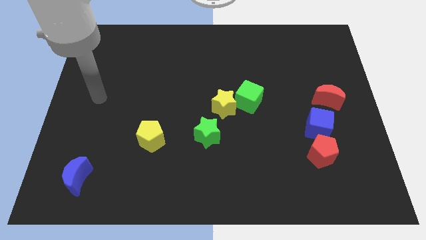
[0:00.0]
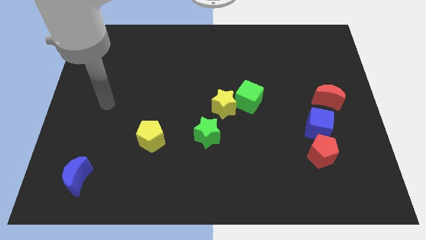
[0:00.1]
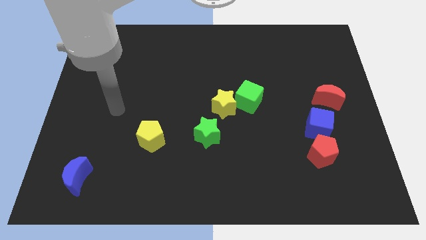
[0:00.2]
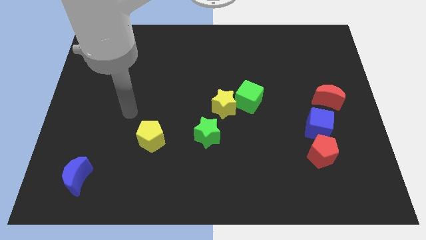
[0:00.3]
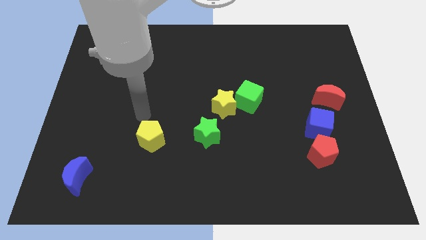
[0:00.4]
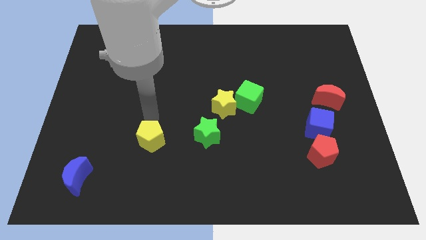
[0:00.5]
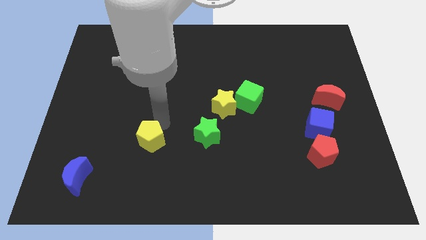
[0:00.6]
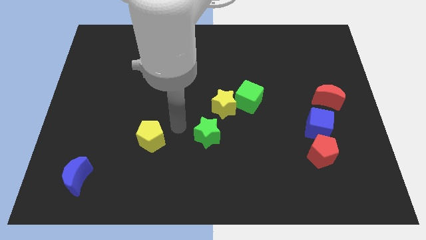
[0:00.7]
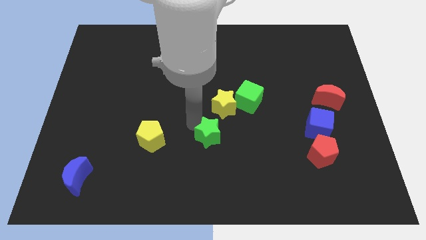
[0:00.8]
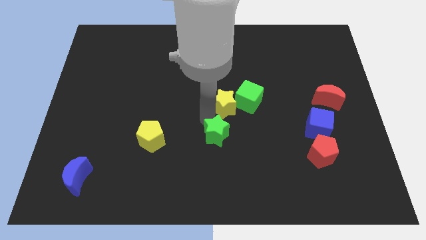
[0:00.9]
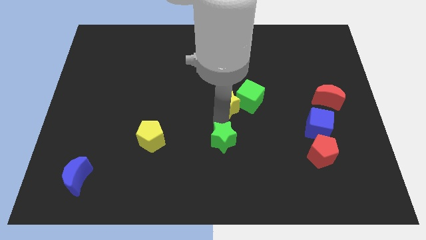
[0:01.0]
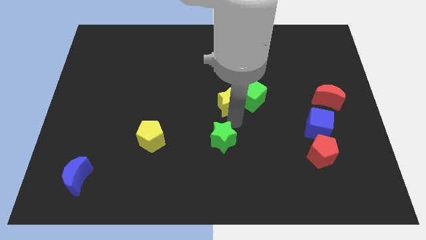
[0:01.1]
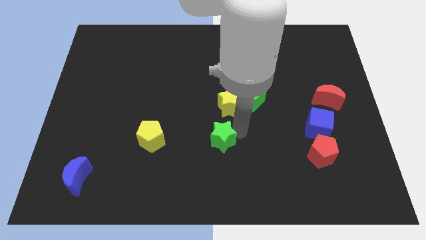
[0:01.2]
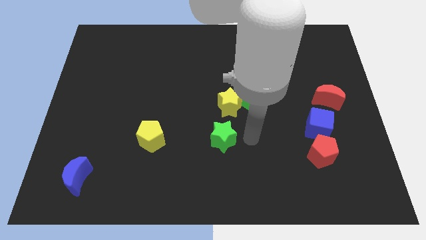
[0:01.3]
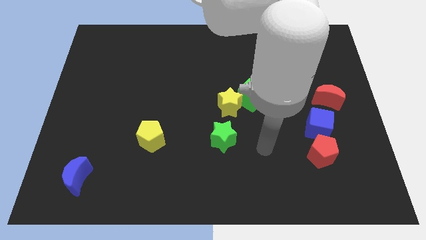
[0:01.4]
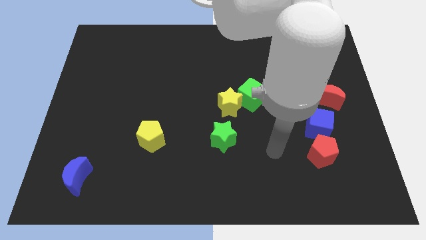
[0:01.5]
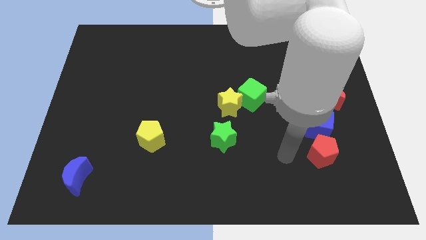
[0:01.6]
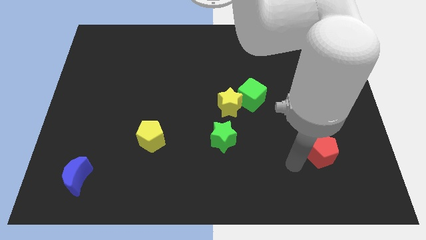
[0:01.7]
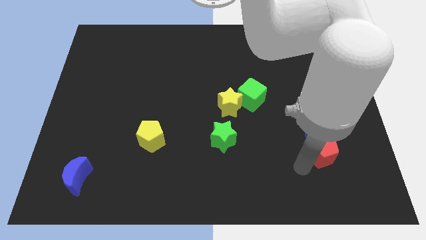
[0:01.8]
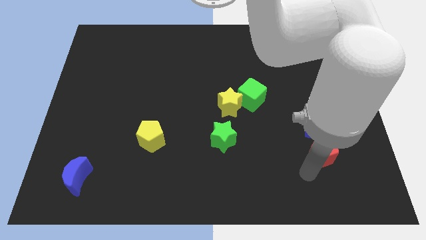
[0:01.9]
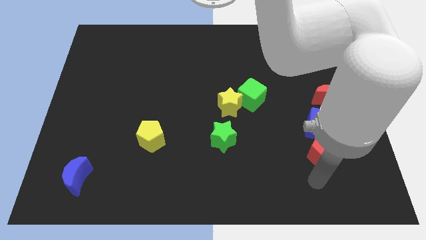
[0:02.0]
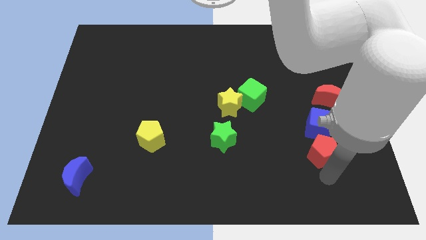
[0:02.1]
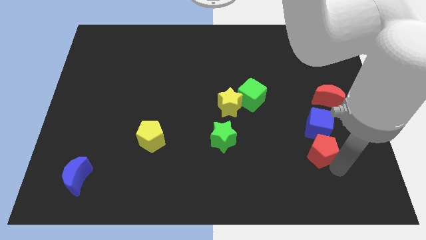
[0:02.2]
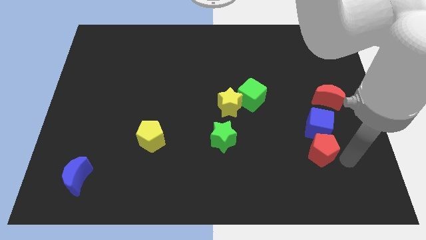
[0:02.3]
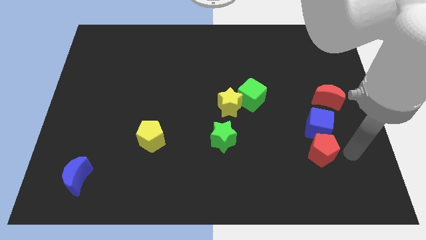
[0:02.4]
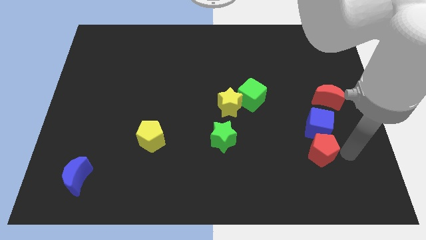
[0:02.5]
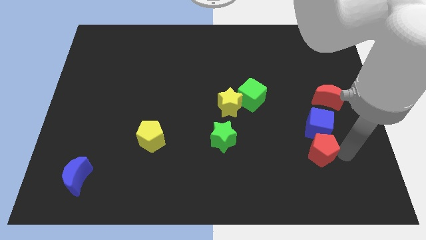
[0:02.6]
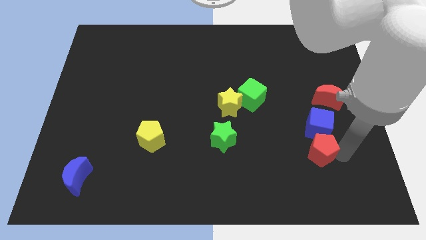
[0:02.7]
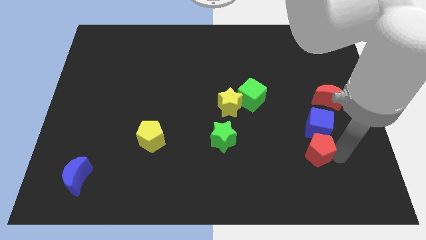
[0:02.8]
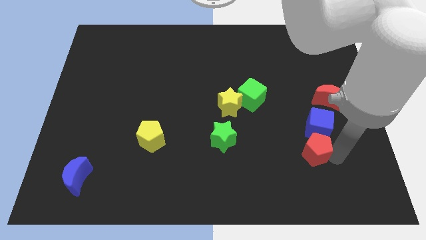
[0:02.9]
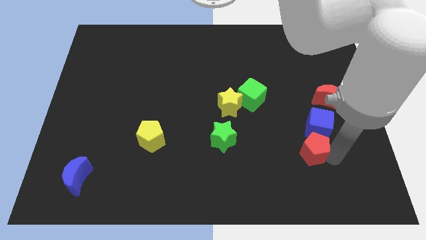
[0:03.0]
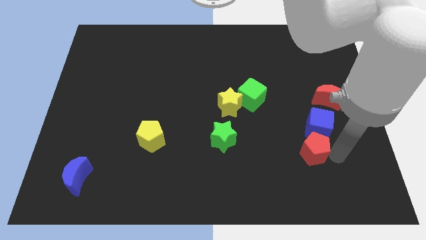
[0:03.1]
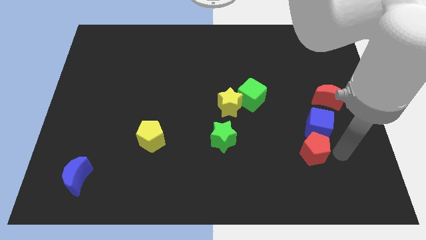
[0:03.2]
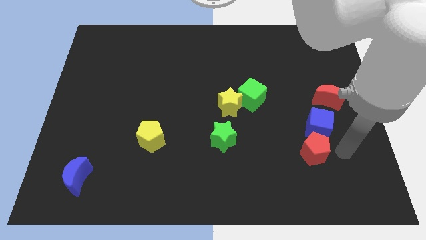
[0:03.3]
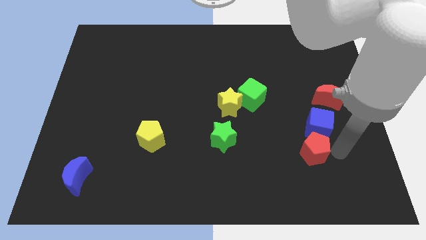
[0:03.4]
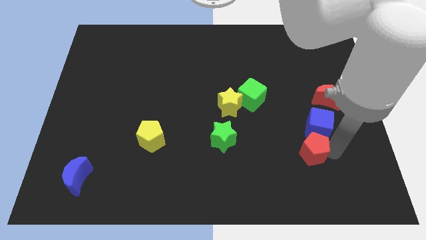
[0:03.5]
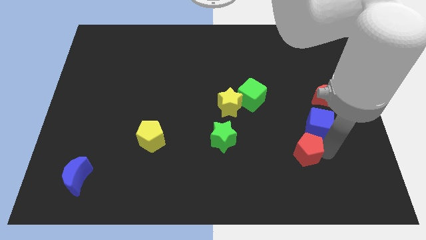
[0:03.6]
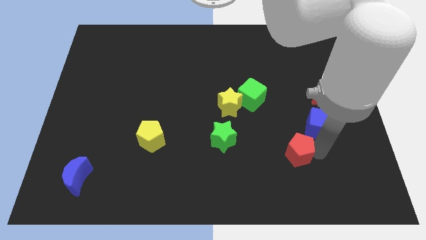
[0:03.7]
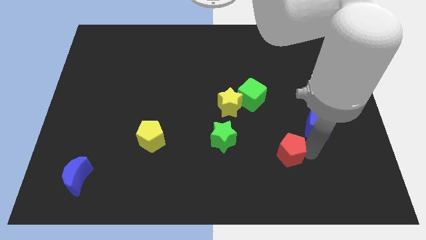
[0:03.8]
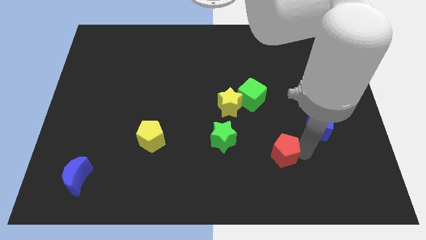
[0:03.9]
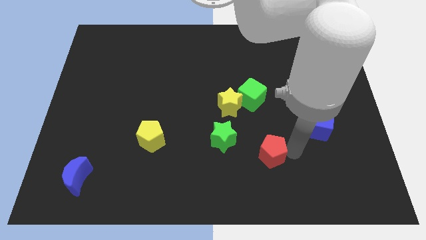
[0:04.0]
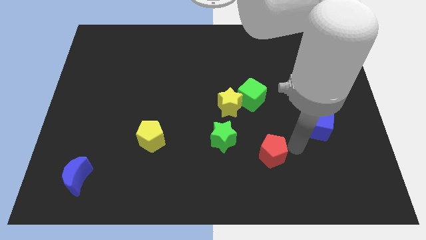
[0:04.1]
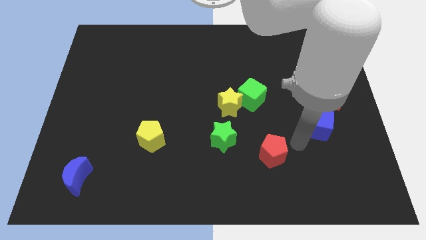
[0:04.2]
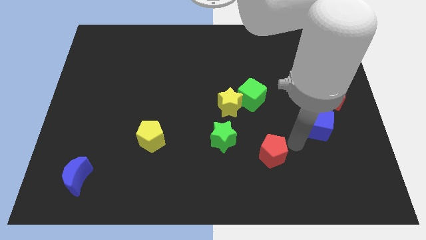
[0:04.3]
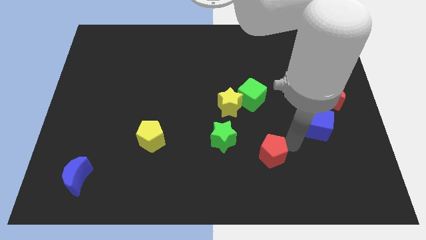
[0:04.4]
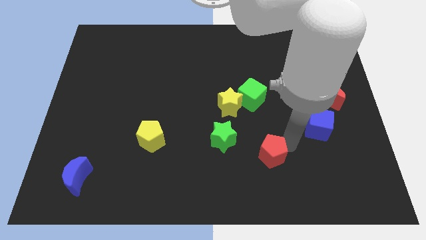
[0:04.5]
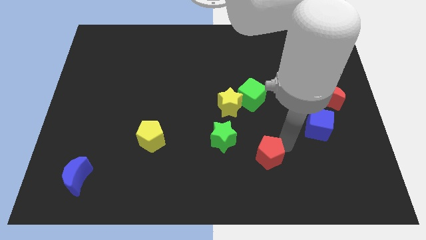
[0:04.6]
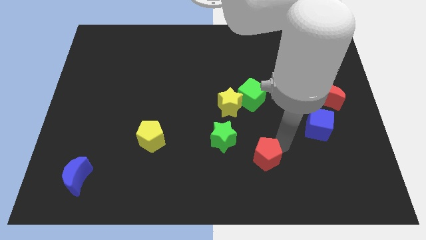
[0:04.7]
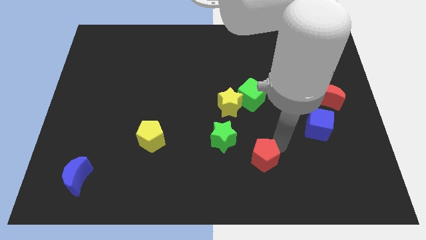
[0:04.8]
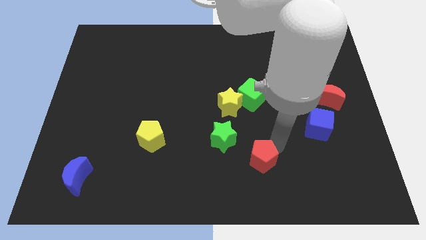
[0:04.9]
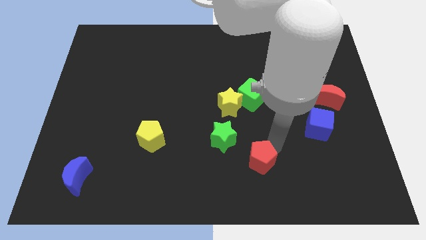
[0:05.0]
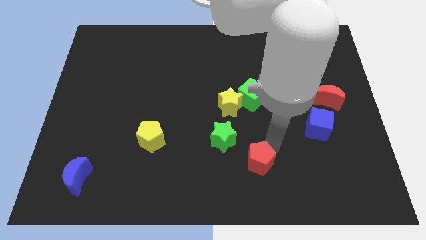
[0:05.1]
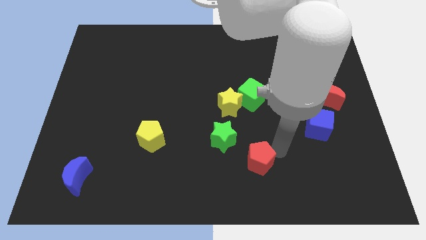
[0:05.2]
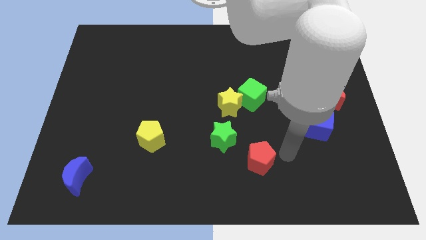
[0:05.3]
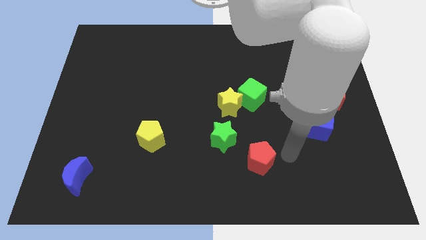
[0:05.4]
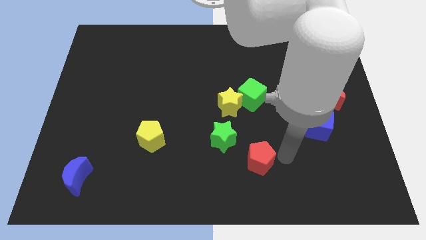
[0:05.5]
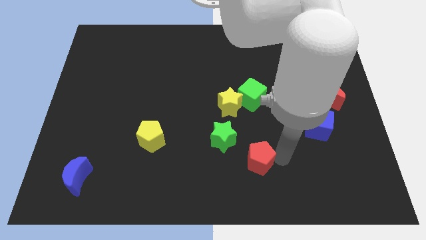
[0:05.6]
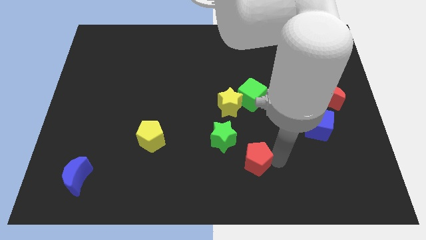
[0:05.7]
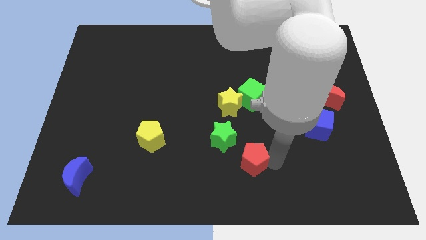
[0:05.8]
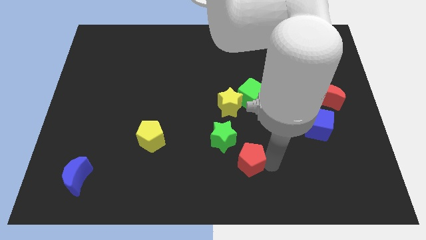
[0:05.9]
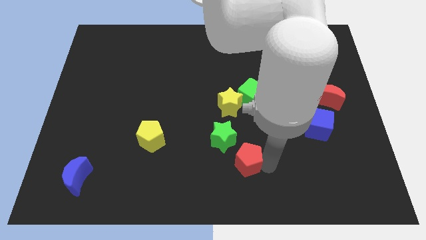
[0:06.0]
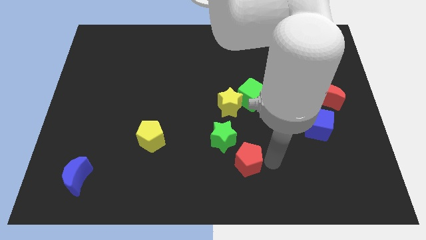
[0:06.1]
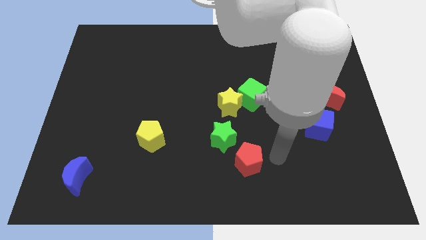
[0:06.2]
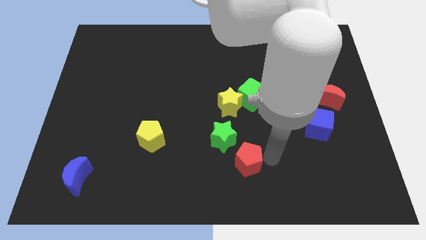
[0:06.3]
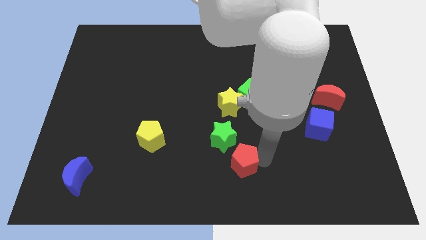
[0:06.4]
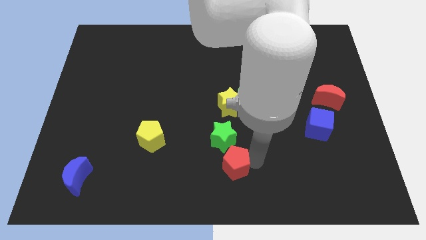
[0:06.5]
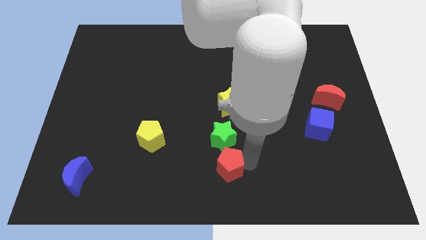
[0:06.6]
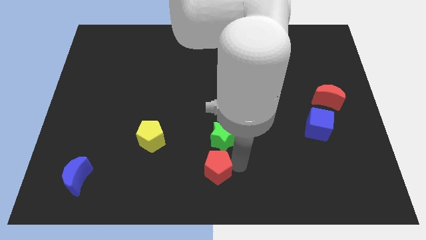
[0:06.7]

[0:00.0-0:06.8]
push the red pentagon left

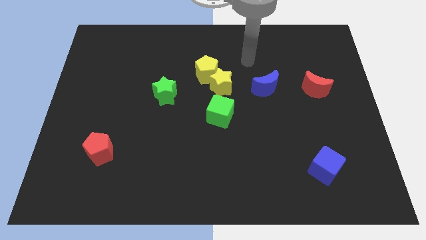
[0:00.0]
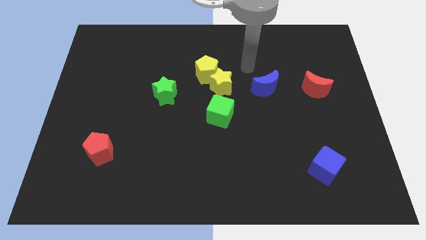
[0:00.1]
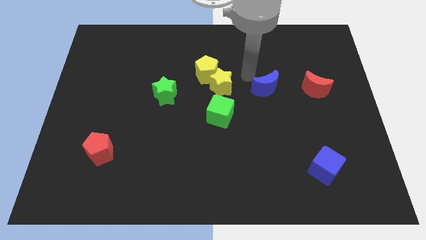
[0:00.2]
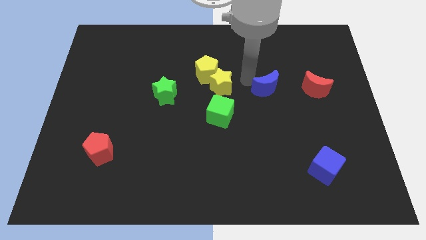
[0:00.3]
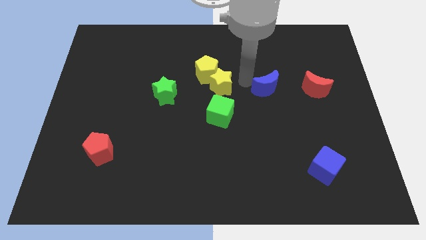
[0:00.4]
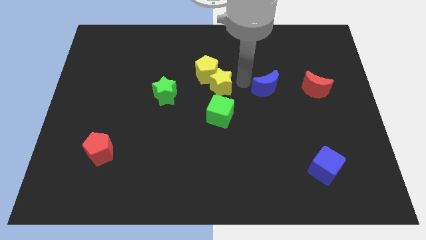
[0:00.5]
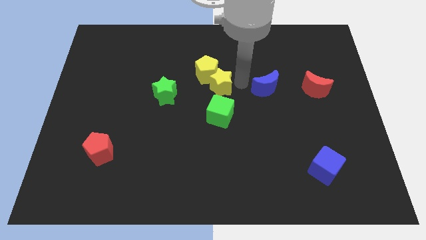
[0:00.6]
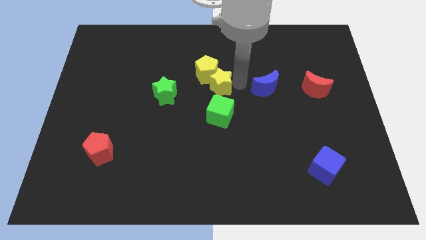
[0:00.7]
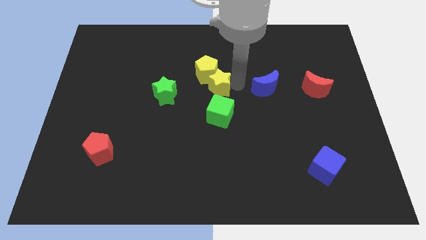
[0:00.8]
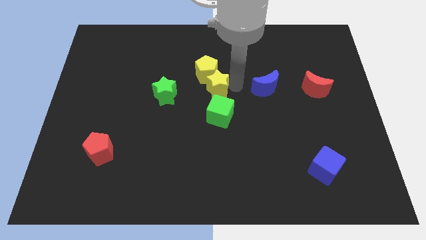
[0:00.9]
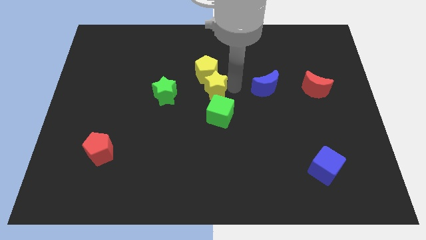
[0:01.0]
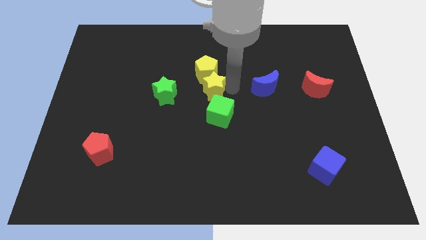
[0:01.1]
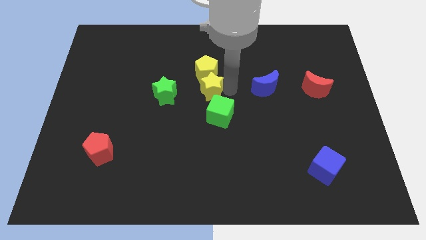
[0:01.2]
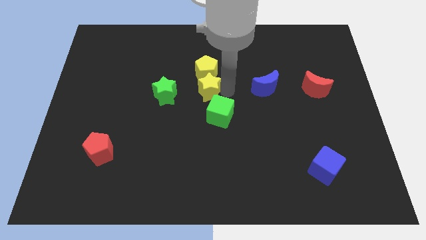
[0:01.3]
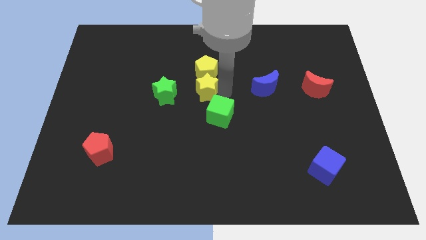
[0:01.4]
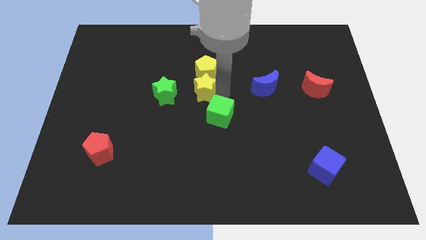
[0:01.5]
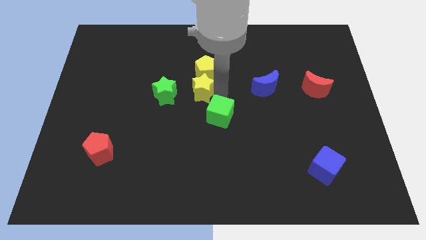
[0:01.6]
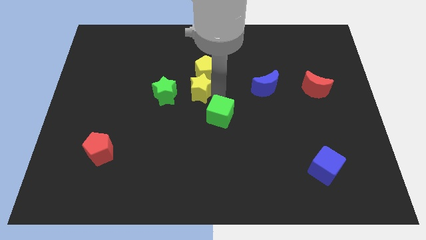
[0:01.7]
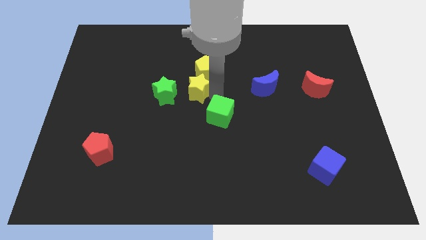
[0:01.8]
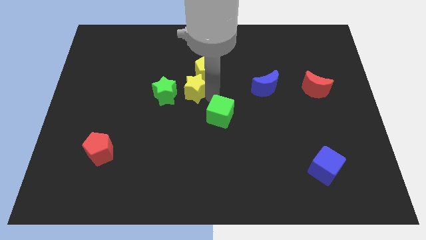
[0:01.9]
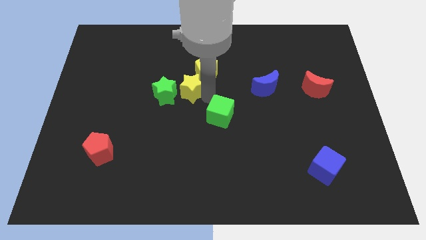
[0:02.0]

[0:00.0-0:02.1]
slightly move the yellow star to the left
